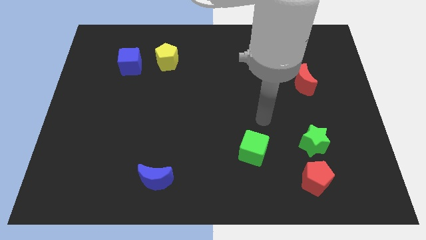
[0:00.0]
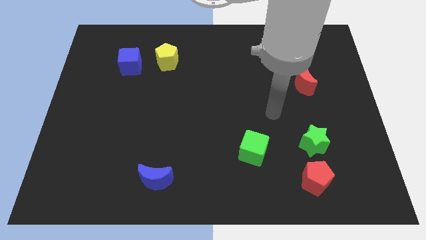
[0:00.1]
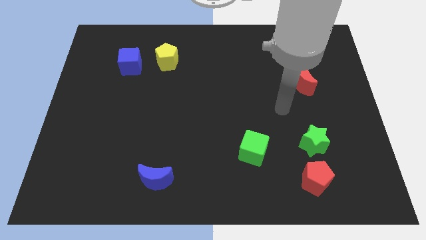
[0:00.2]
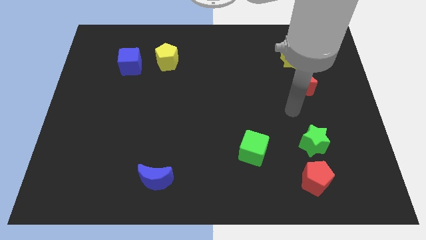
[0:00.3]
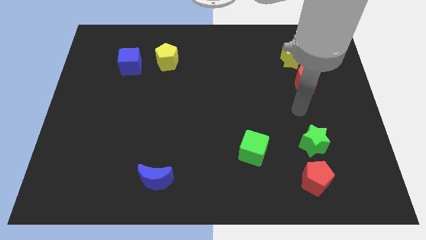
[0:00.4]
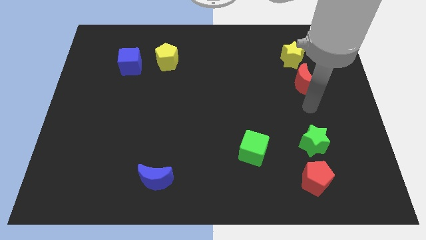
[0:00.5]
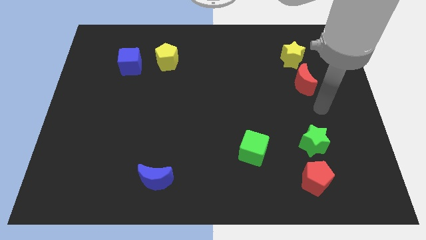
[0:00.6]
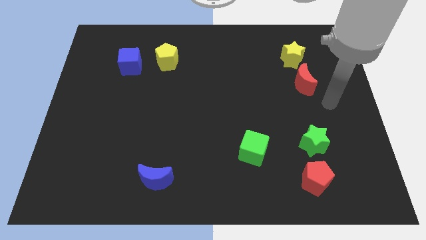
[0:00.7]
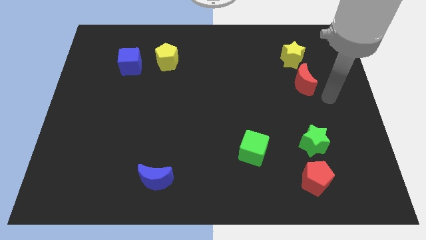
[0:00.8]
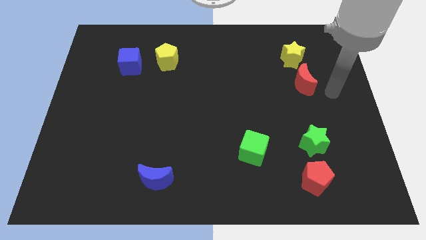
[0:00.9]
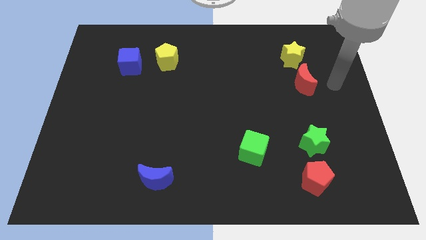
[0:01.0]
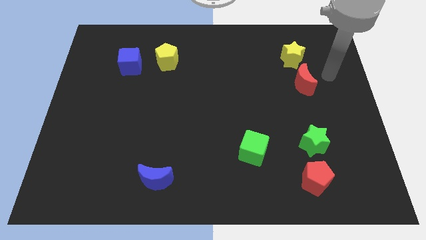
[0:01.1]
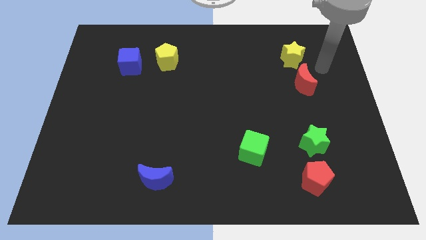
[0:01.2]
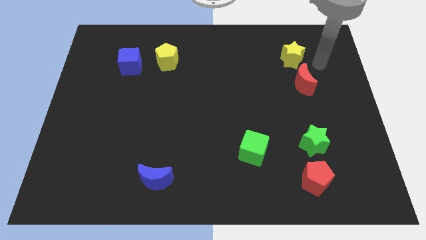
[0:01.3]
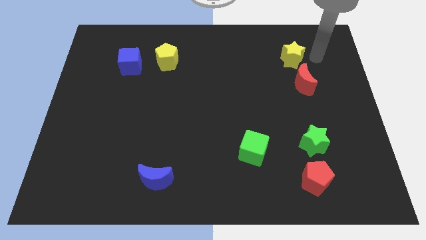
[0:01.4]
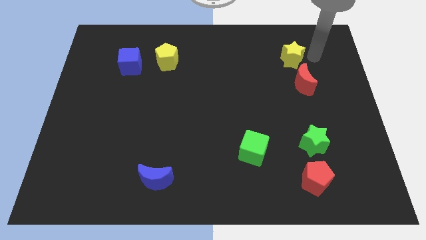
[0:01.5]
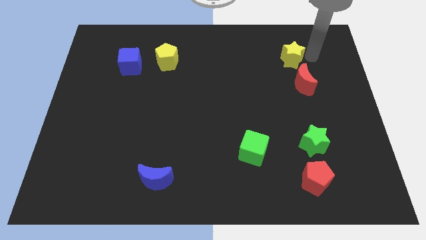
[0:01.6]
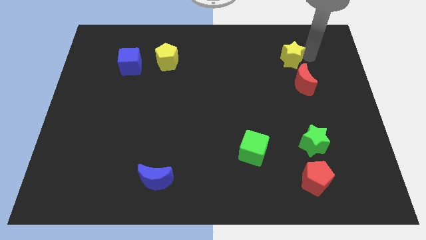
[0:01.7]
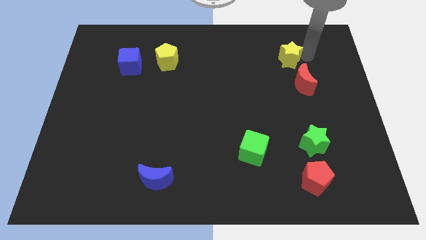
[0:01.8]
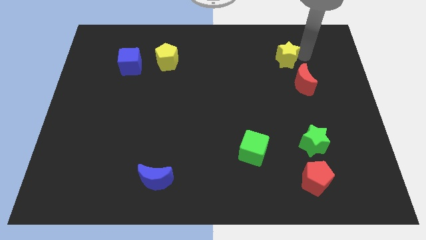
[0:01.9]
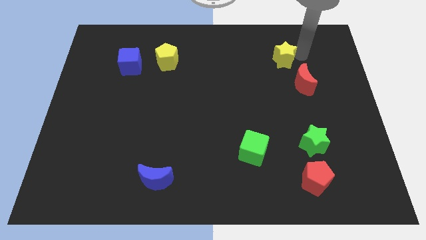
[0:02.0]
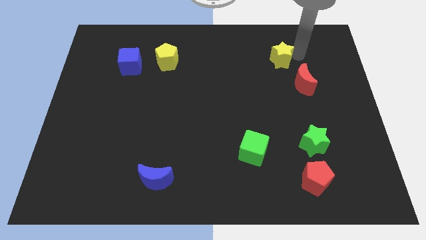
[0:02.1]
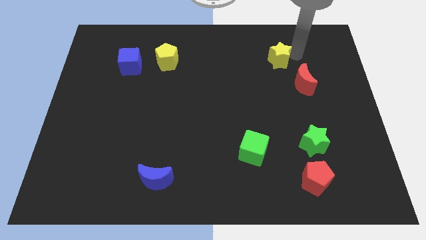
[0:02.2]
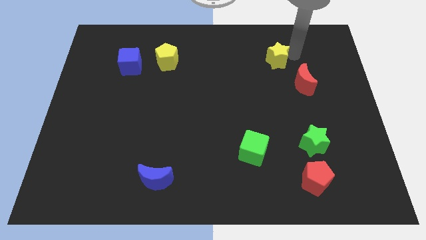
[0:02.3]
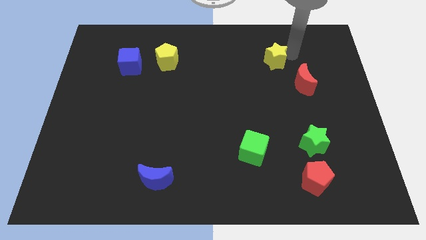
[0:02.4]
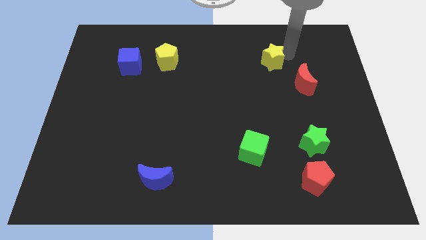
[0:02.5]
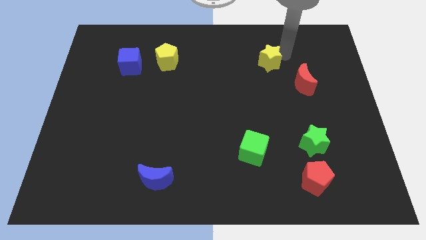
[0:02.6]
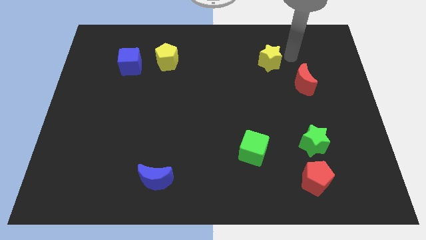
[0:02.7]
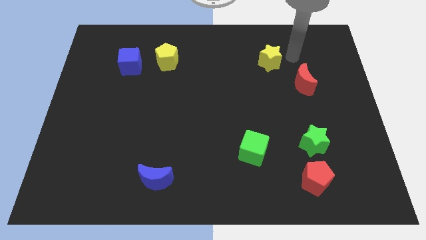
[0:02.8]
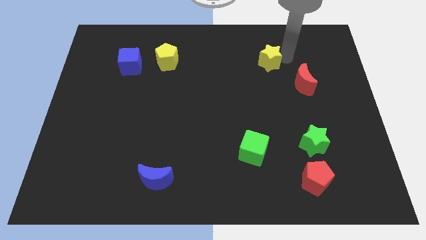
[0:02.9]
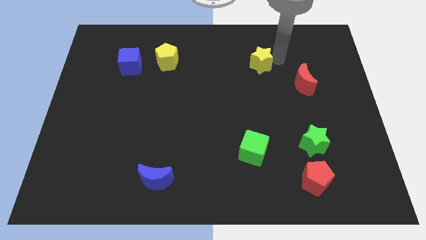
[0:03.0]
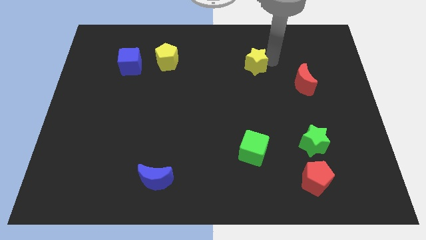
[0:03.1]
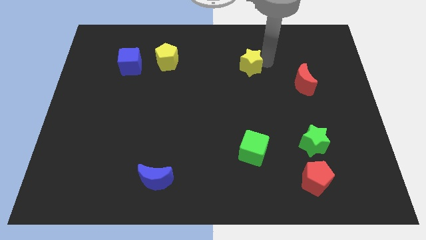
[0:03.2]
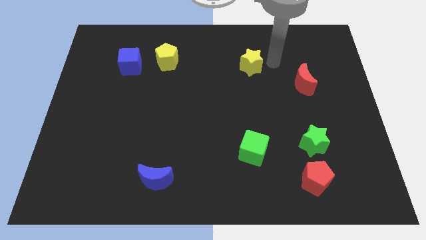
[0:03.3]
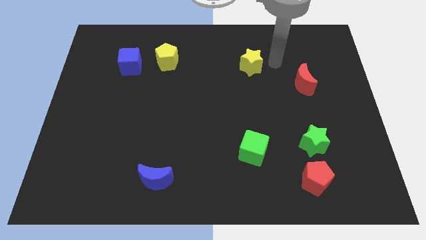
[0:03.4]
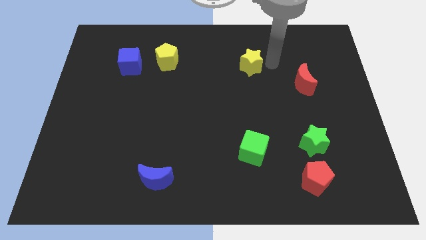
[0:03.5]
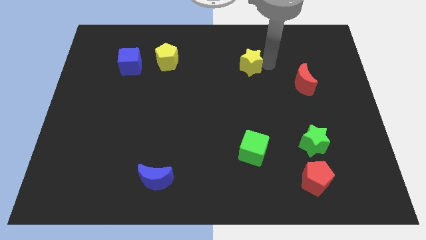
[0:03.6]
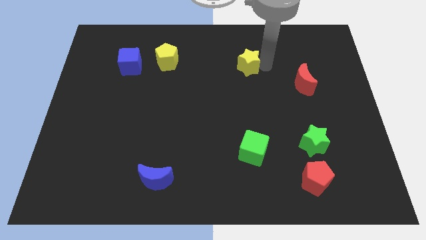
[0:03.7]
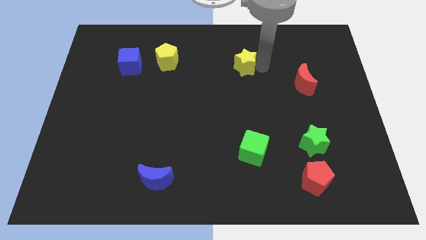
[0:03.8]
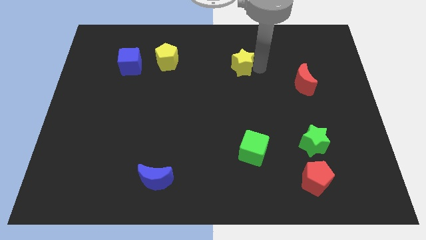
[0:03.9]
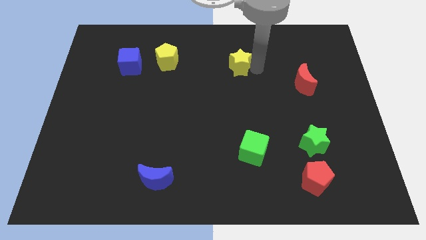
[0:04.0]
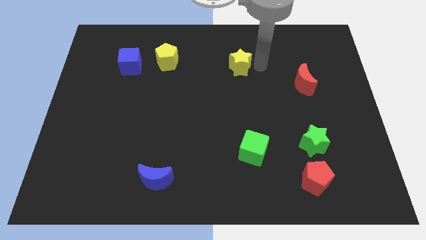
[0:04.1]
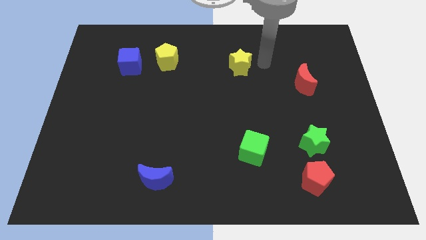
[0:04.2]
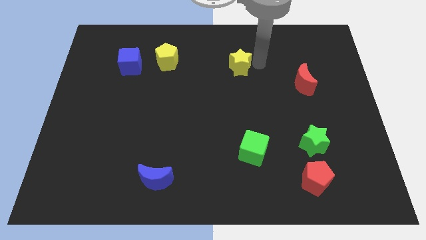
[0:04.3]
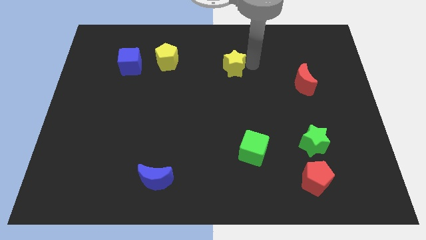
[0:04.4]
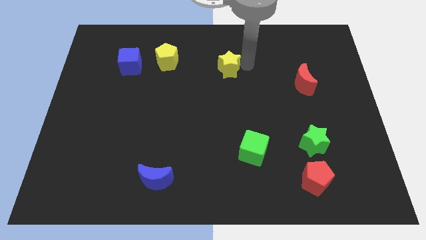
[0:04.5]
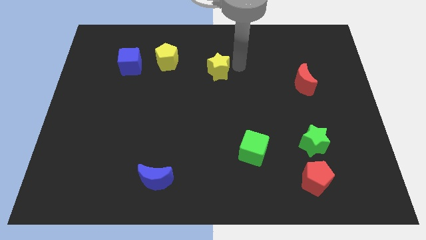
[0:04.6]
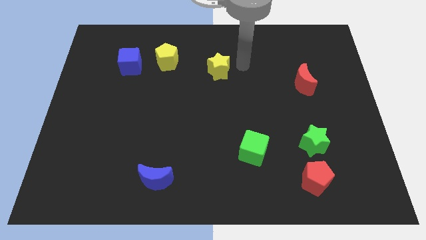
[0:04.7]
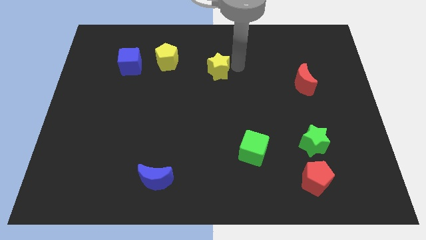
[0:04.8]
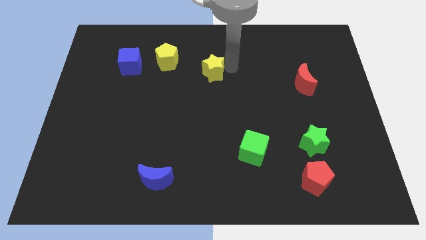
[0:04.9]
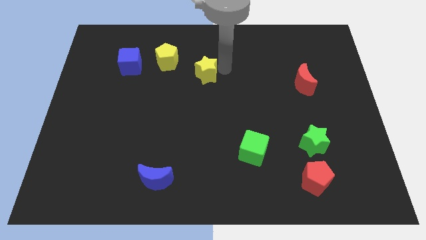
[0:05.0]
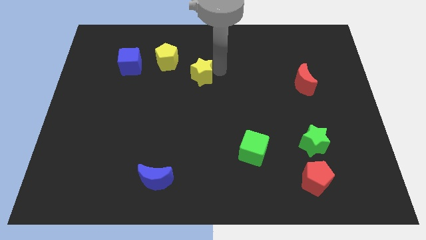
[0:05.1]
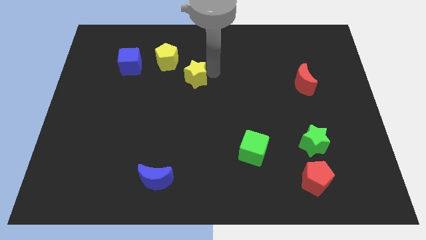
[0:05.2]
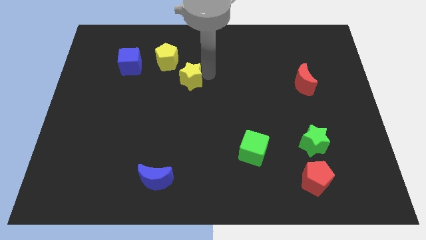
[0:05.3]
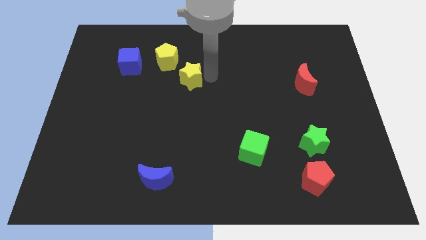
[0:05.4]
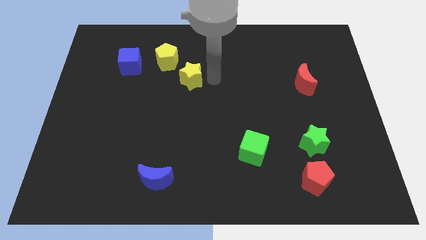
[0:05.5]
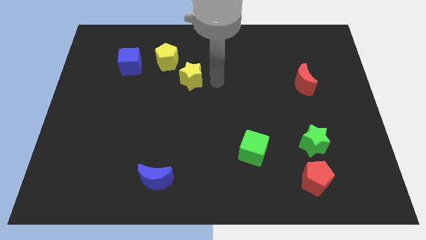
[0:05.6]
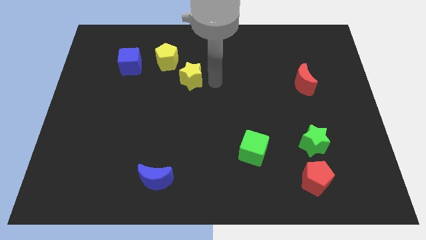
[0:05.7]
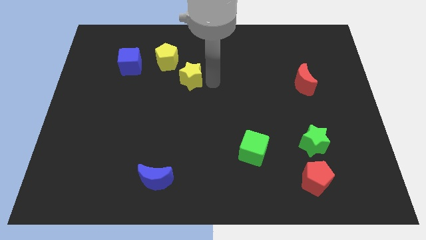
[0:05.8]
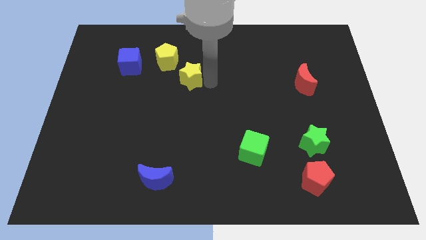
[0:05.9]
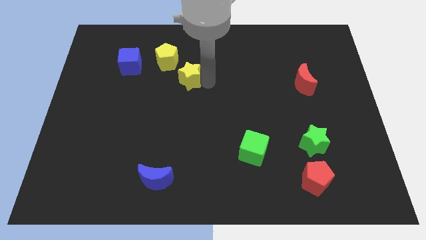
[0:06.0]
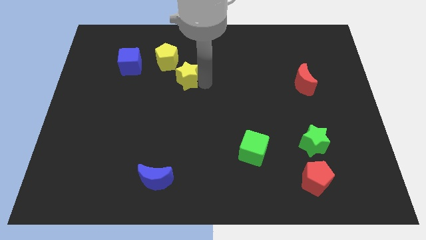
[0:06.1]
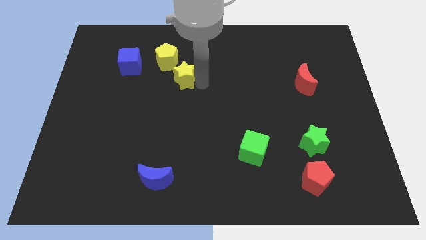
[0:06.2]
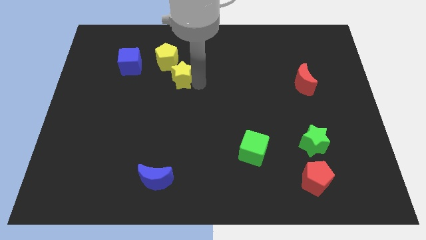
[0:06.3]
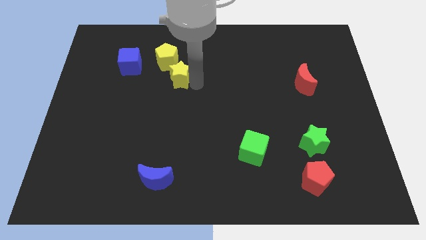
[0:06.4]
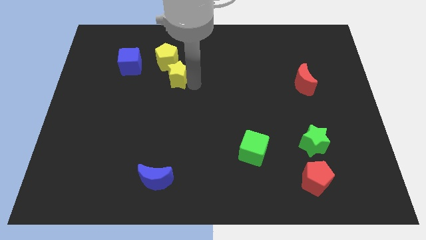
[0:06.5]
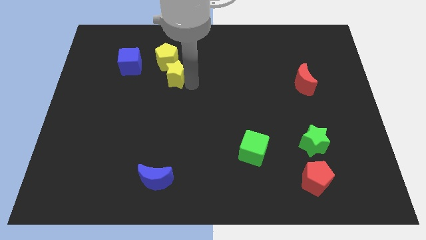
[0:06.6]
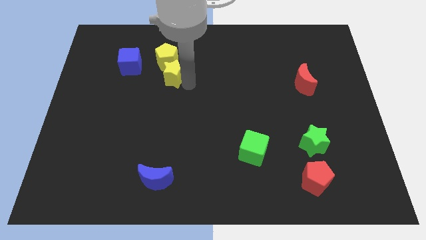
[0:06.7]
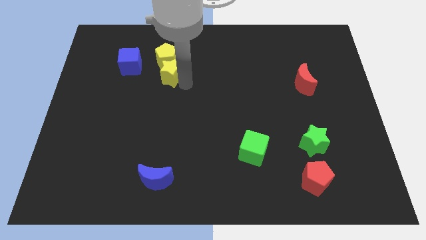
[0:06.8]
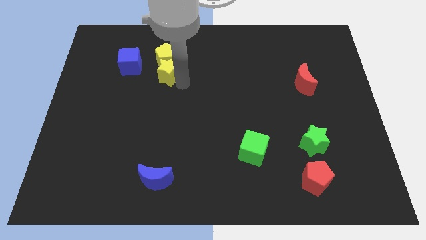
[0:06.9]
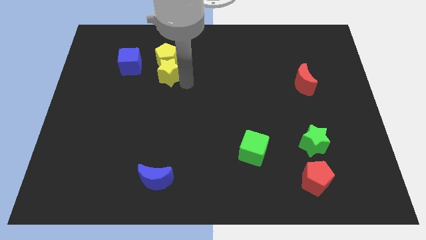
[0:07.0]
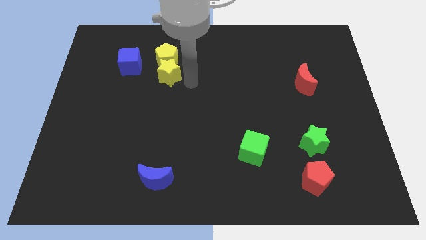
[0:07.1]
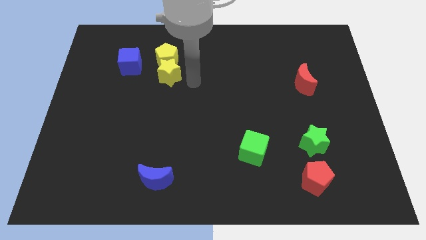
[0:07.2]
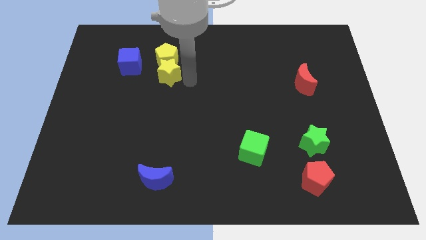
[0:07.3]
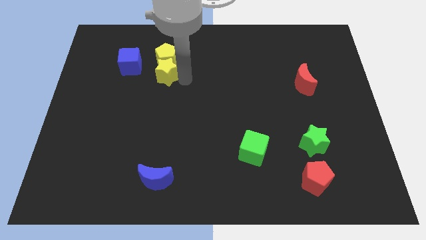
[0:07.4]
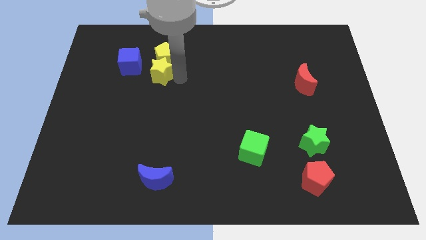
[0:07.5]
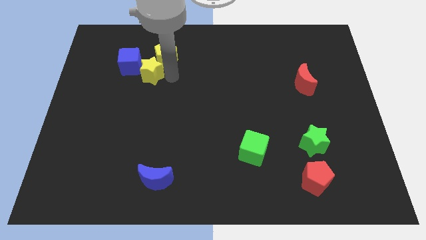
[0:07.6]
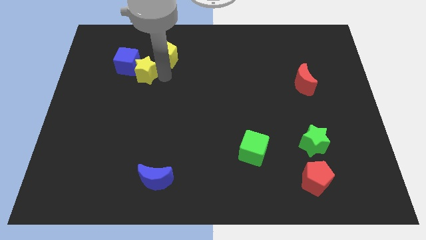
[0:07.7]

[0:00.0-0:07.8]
push the yellow star close to the blue cube
